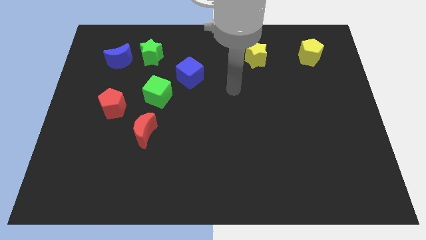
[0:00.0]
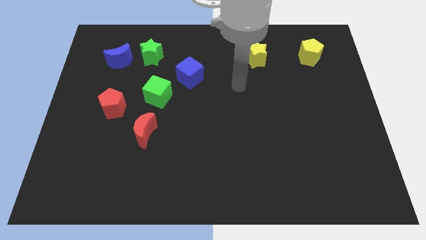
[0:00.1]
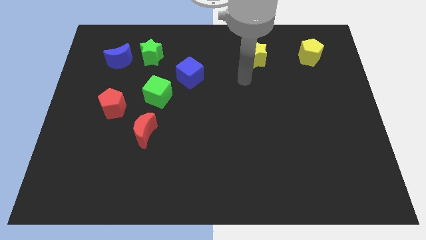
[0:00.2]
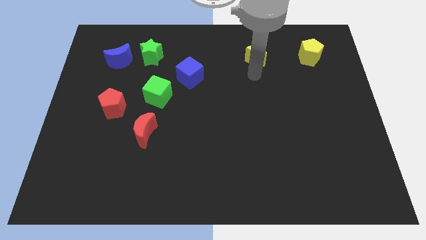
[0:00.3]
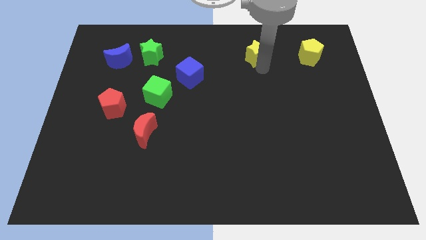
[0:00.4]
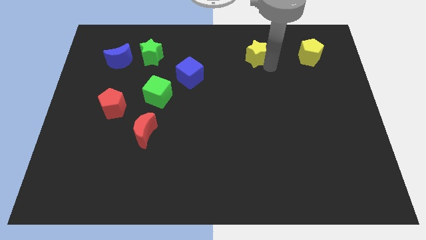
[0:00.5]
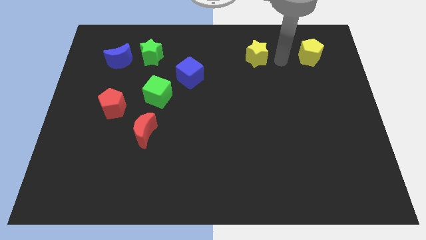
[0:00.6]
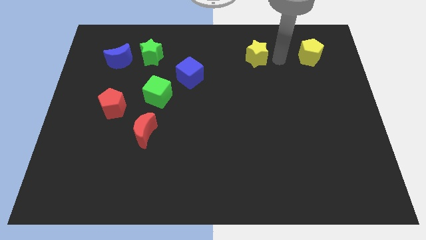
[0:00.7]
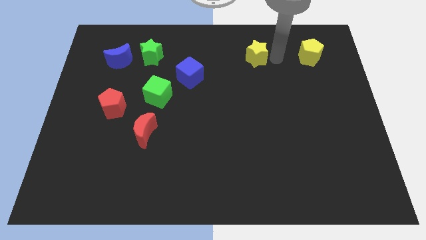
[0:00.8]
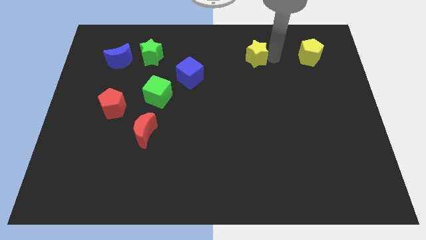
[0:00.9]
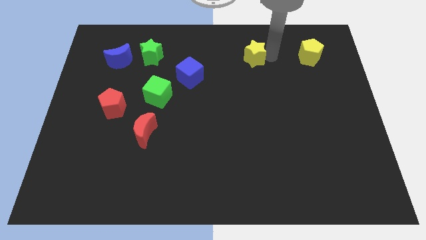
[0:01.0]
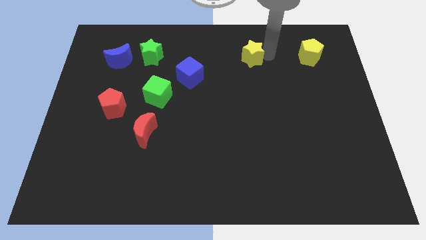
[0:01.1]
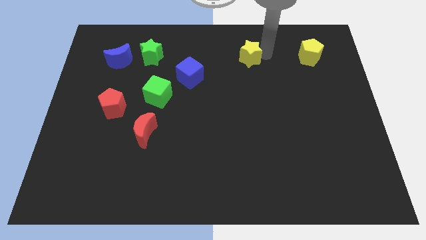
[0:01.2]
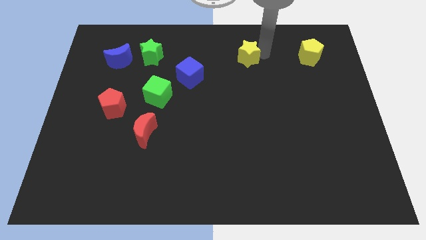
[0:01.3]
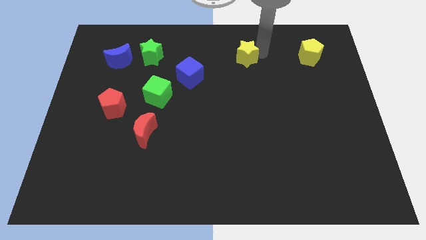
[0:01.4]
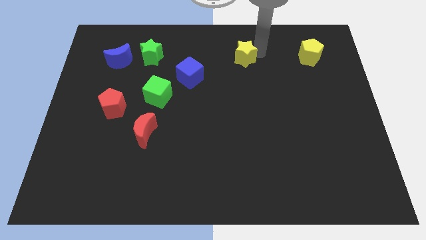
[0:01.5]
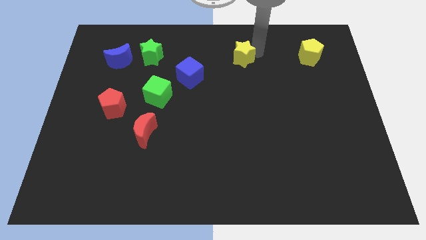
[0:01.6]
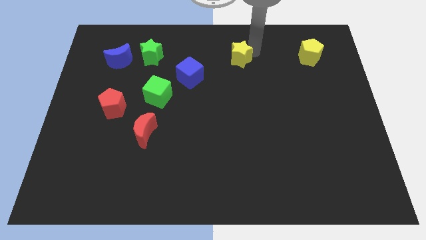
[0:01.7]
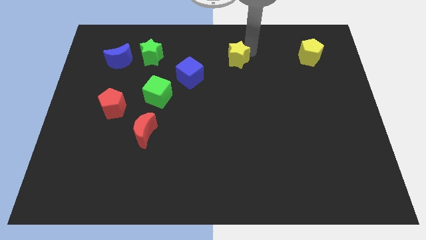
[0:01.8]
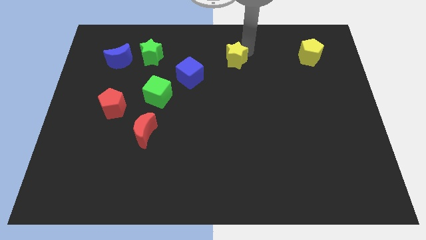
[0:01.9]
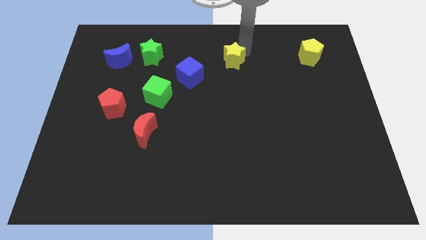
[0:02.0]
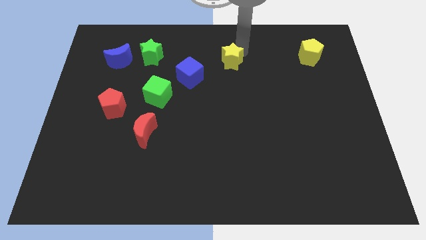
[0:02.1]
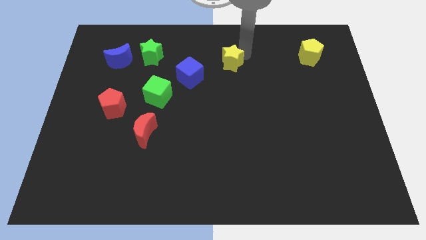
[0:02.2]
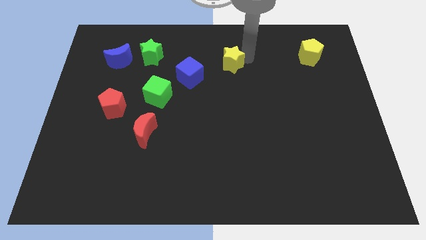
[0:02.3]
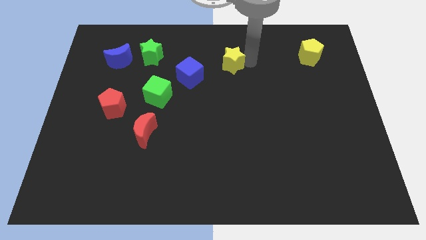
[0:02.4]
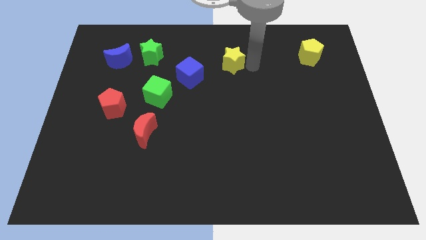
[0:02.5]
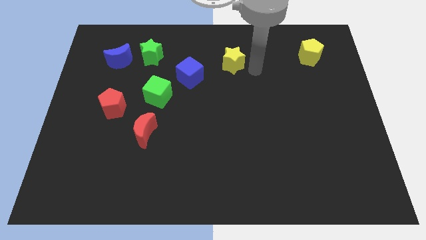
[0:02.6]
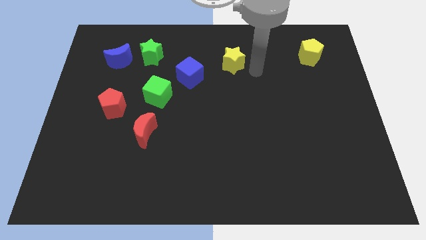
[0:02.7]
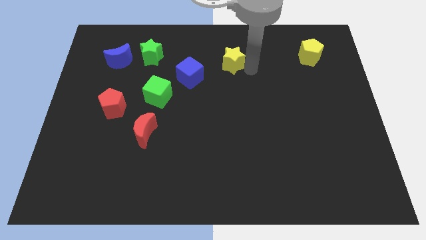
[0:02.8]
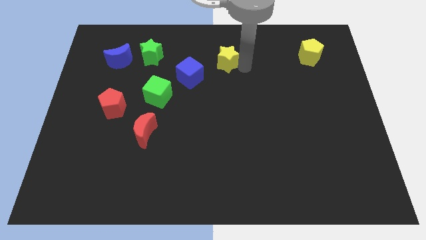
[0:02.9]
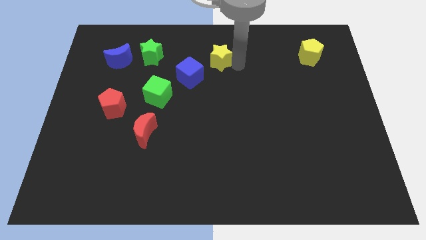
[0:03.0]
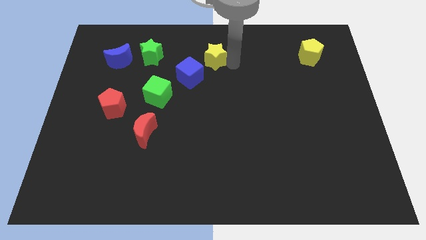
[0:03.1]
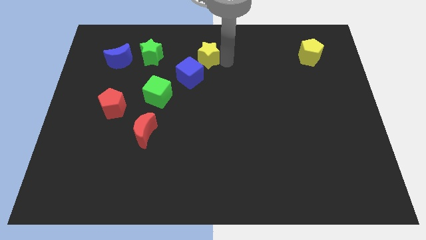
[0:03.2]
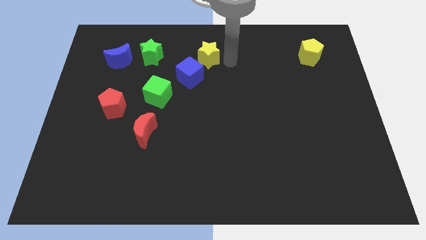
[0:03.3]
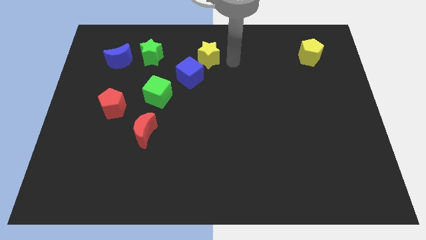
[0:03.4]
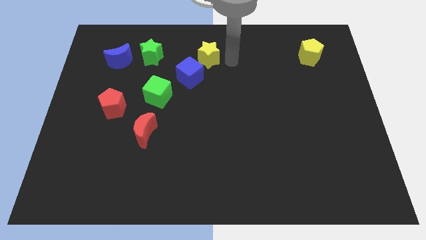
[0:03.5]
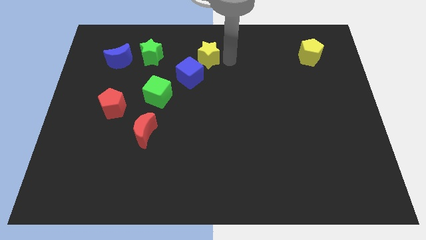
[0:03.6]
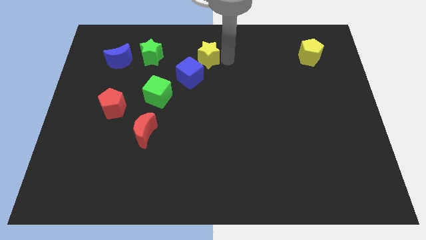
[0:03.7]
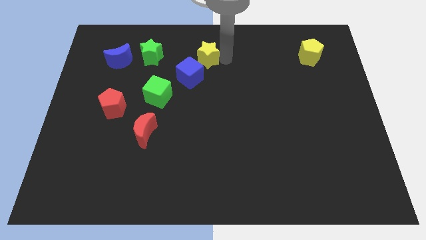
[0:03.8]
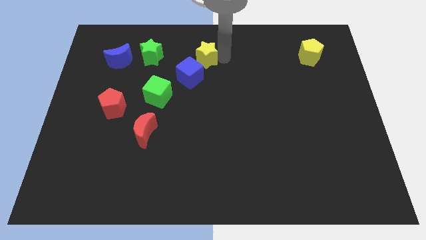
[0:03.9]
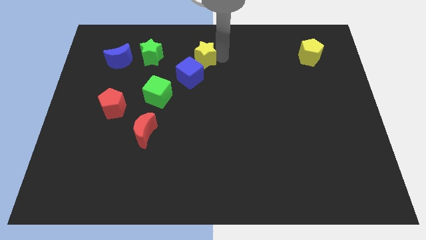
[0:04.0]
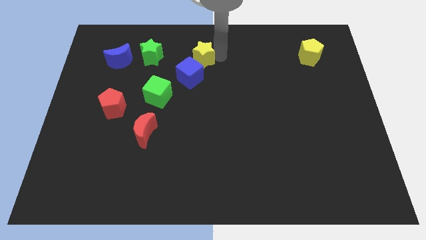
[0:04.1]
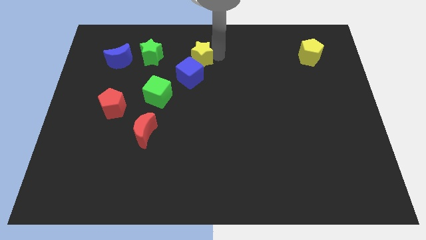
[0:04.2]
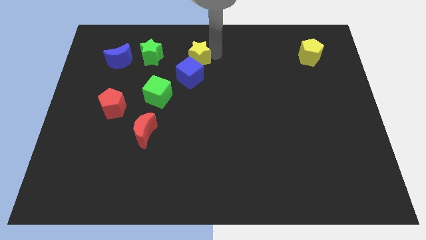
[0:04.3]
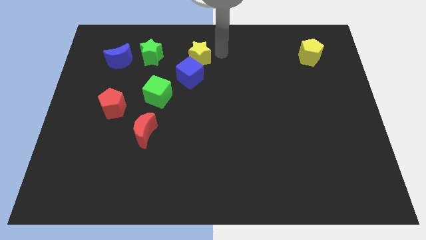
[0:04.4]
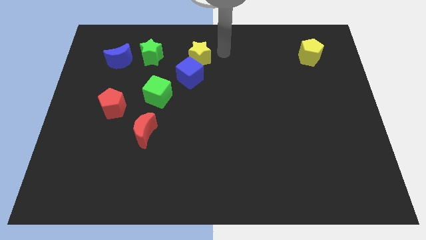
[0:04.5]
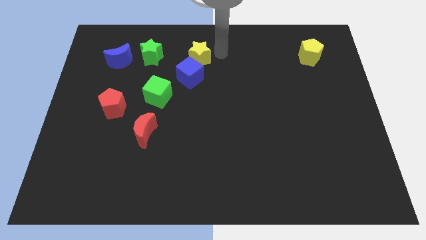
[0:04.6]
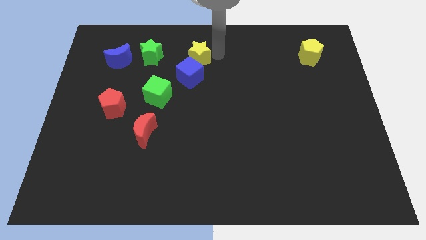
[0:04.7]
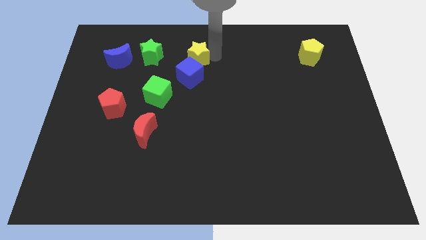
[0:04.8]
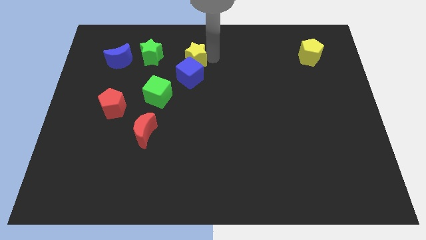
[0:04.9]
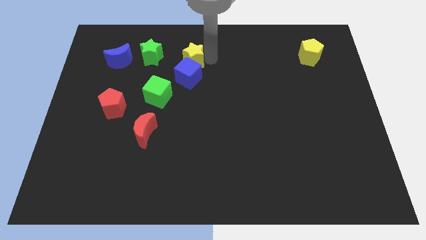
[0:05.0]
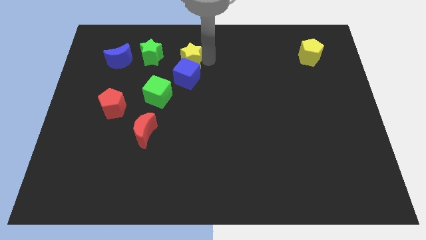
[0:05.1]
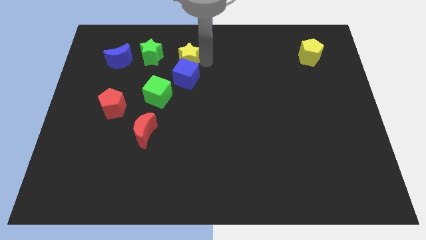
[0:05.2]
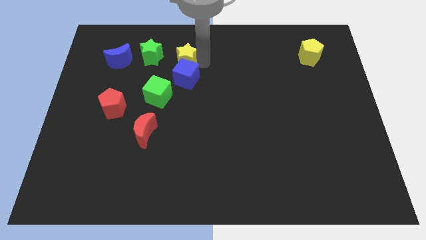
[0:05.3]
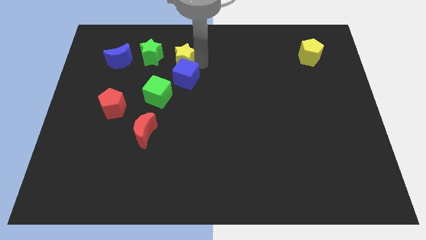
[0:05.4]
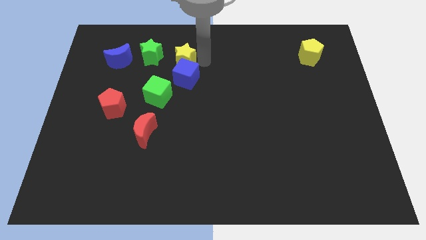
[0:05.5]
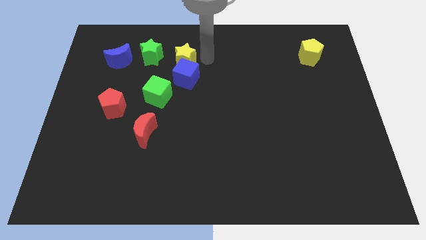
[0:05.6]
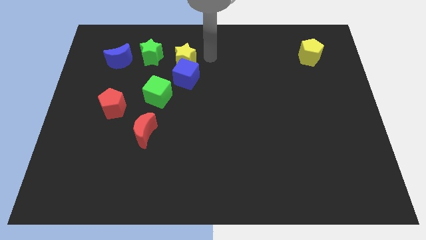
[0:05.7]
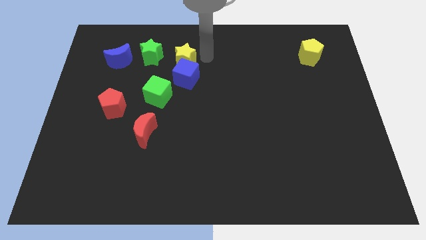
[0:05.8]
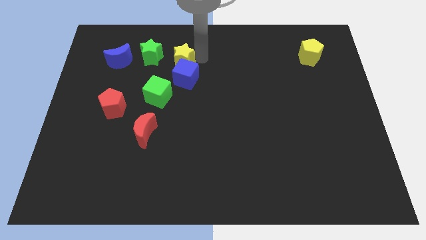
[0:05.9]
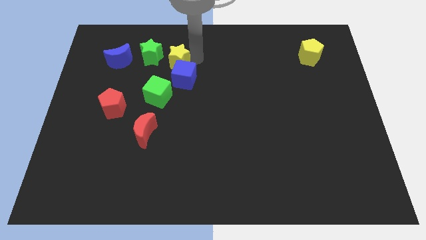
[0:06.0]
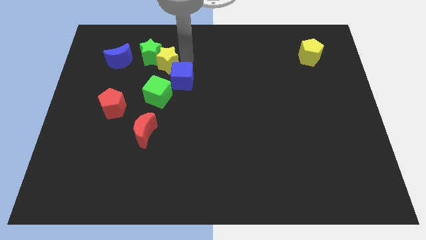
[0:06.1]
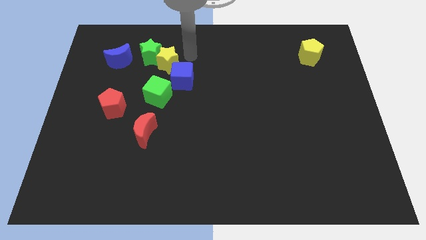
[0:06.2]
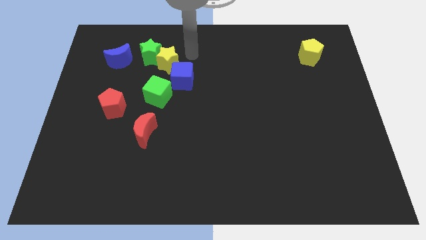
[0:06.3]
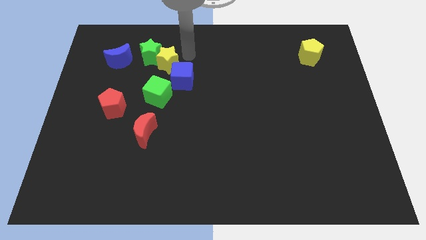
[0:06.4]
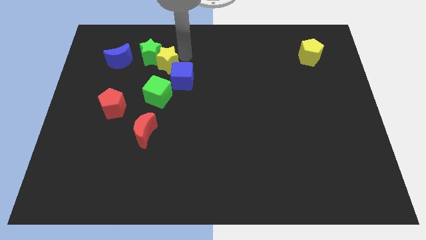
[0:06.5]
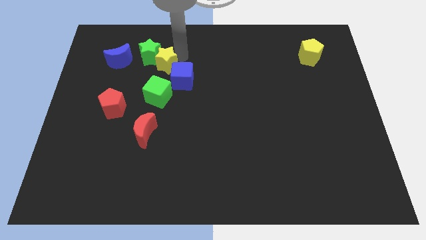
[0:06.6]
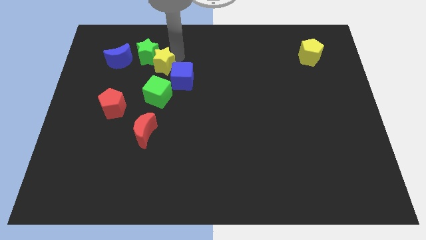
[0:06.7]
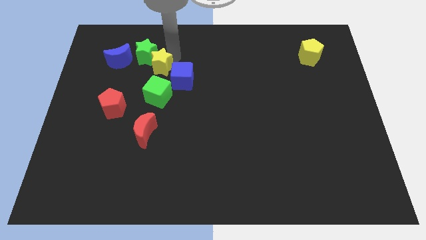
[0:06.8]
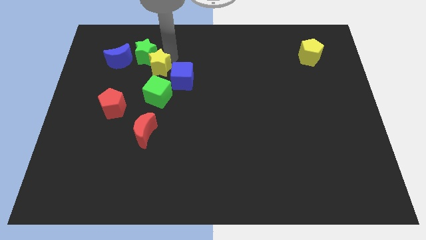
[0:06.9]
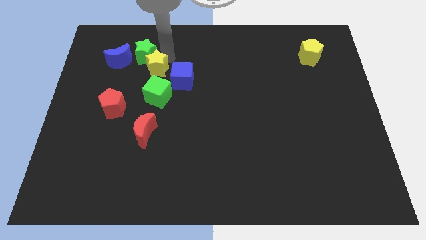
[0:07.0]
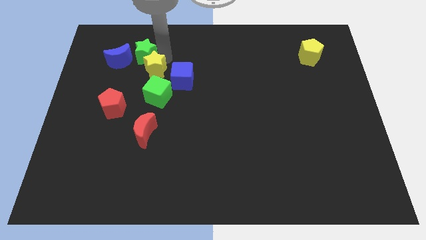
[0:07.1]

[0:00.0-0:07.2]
move the yellow star to the bottom right side of the blue moon
